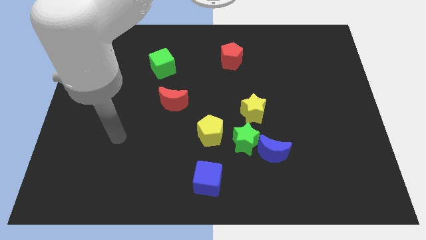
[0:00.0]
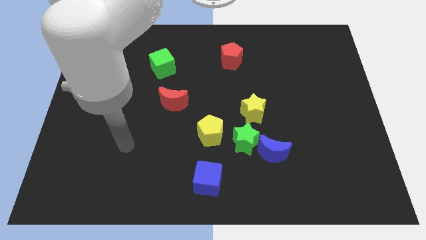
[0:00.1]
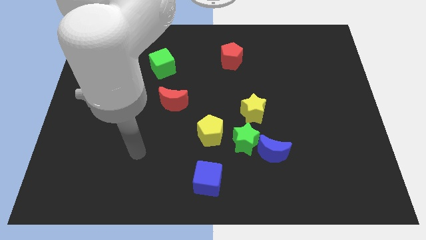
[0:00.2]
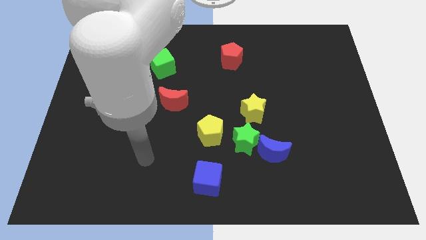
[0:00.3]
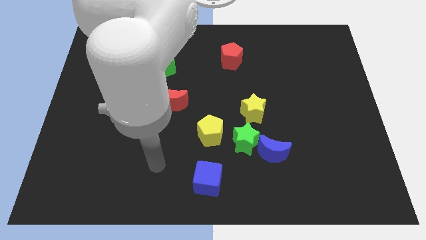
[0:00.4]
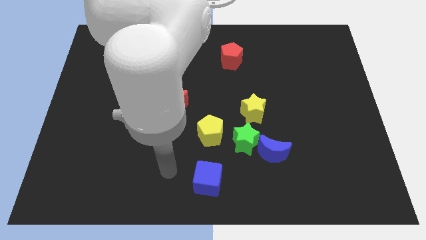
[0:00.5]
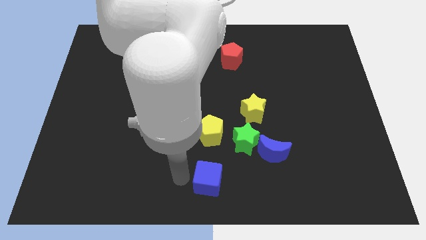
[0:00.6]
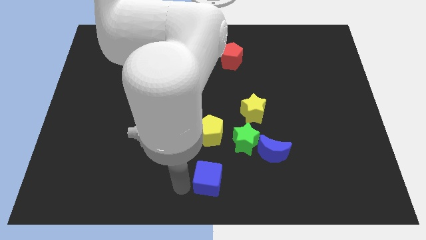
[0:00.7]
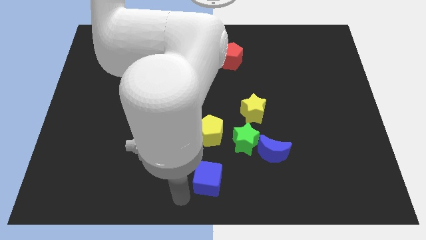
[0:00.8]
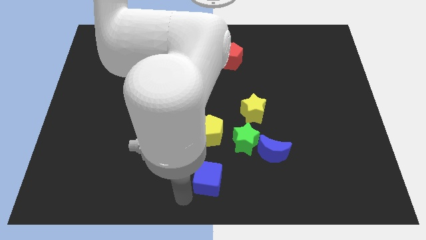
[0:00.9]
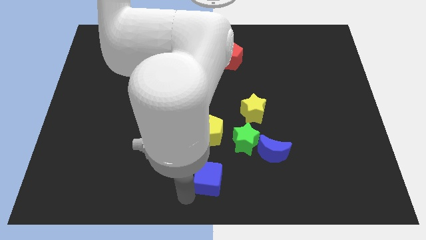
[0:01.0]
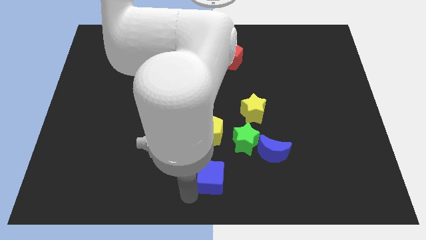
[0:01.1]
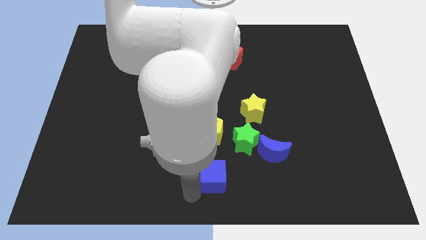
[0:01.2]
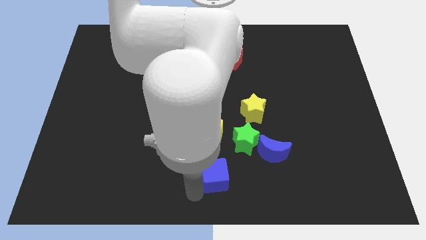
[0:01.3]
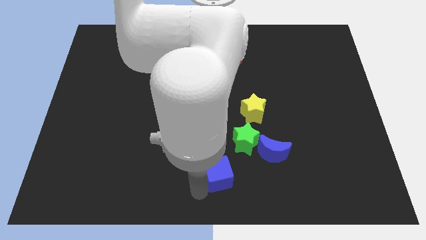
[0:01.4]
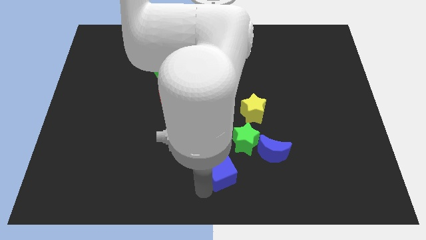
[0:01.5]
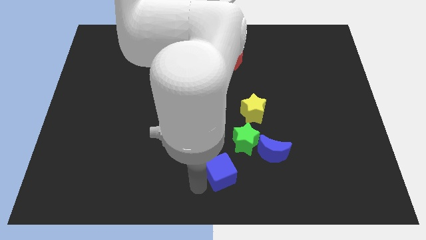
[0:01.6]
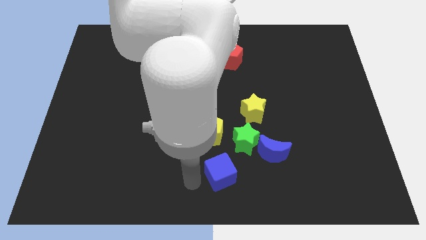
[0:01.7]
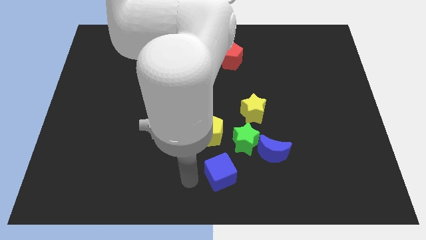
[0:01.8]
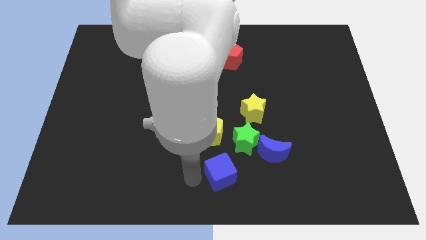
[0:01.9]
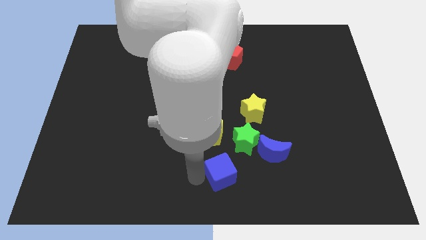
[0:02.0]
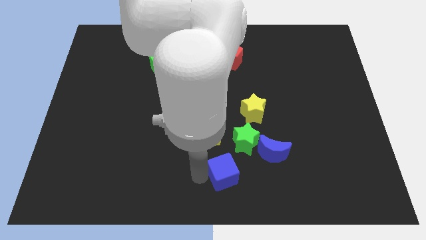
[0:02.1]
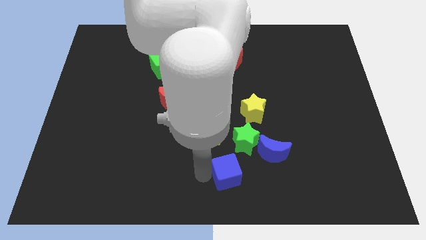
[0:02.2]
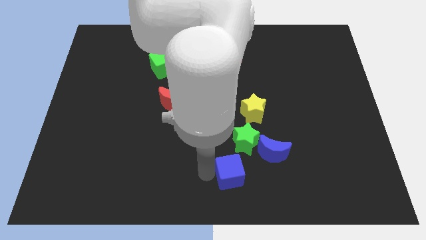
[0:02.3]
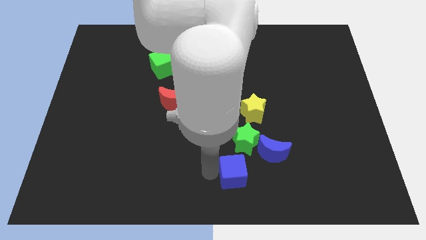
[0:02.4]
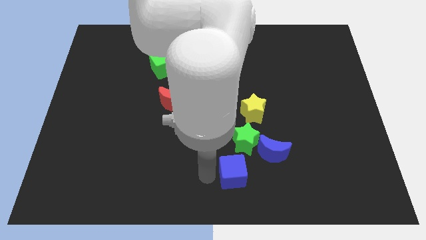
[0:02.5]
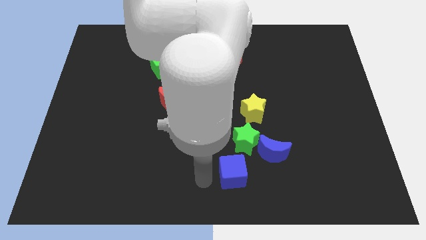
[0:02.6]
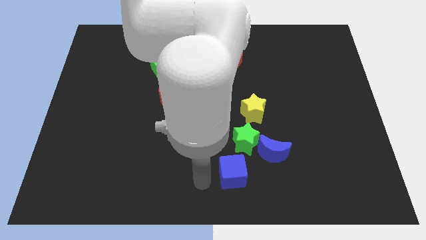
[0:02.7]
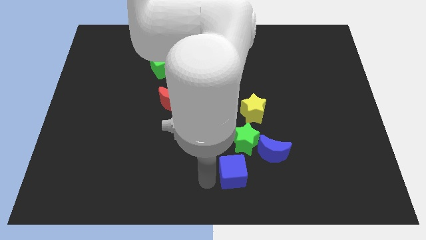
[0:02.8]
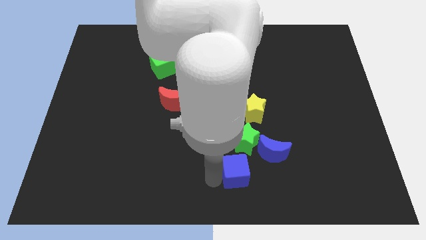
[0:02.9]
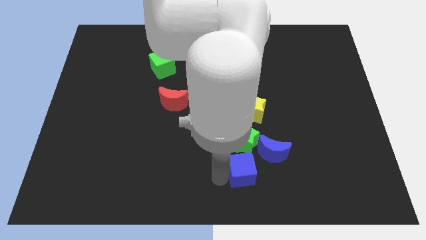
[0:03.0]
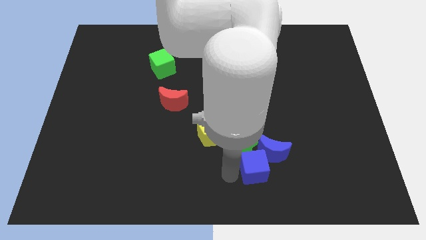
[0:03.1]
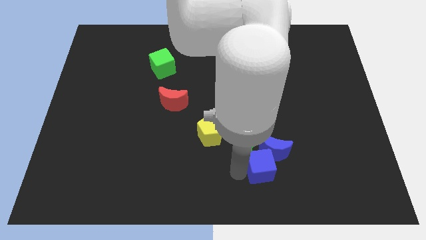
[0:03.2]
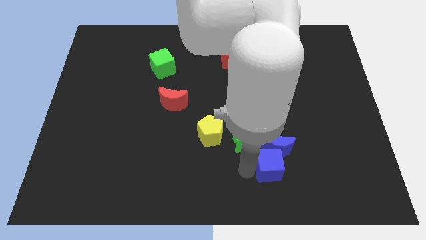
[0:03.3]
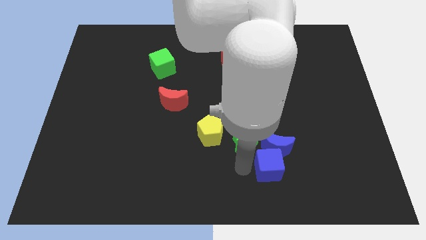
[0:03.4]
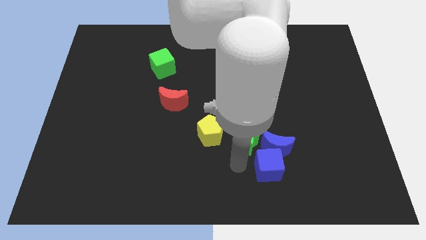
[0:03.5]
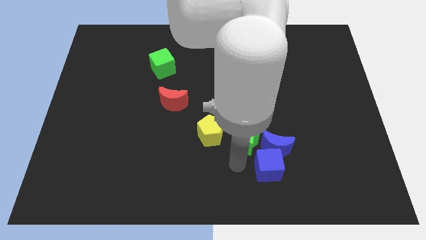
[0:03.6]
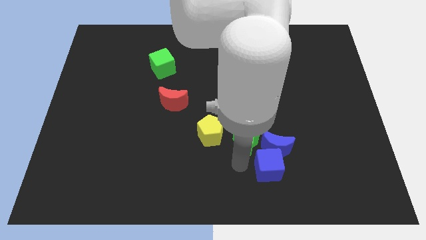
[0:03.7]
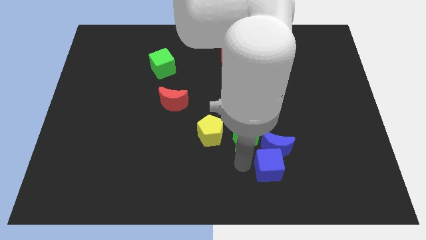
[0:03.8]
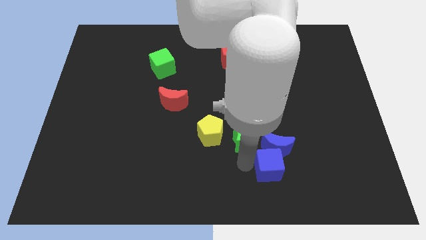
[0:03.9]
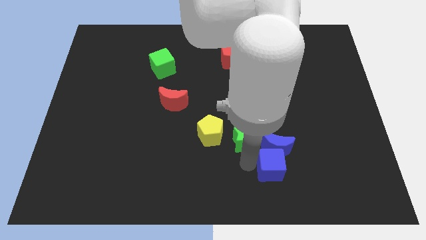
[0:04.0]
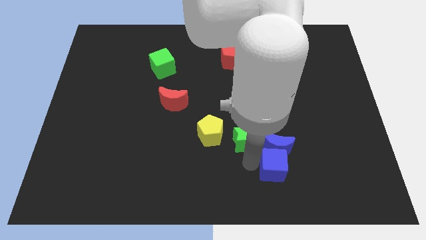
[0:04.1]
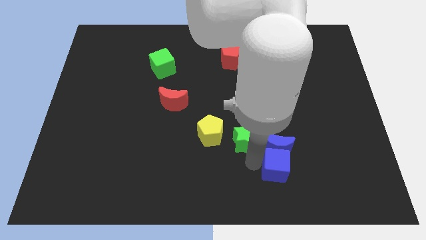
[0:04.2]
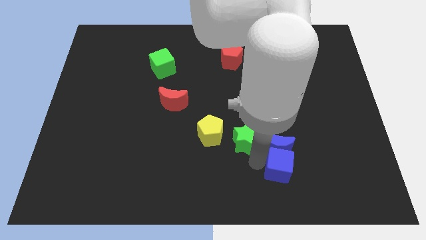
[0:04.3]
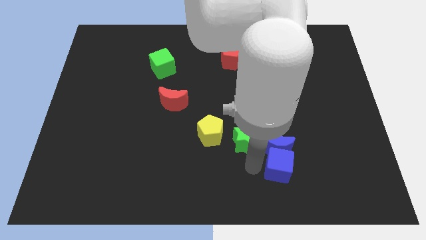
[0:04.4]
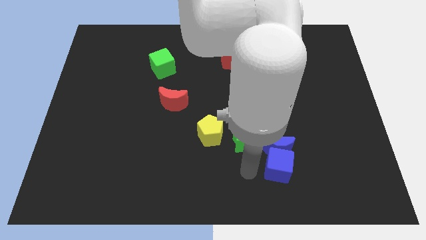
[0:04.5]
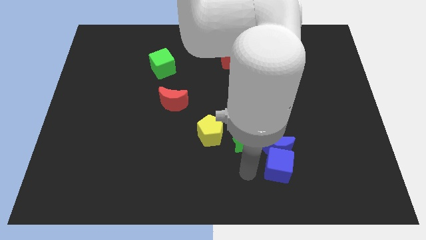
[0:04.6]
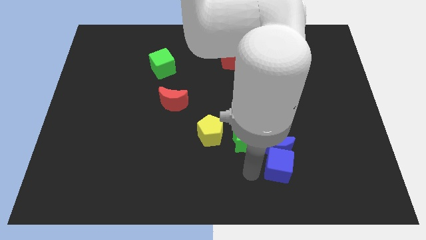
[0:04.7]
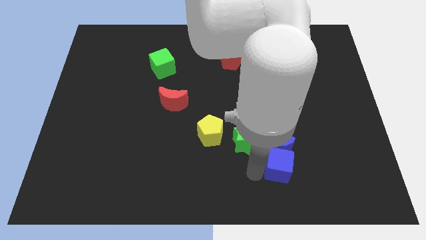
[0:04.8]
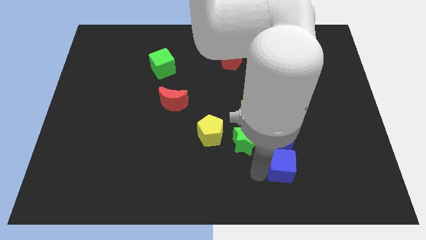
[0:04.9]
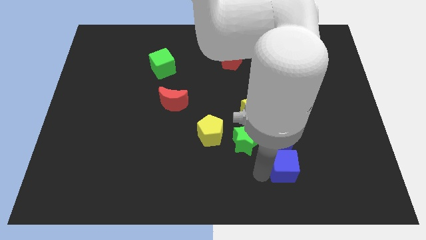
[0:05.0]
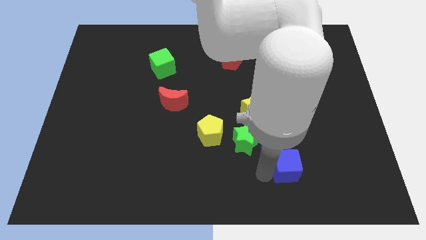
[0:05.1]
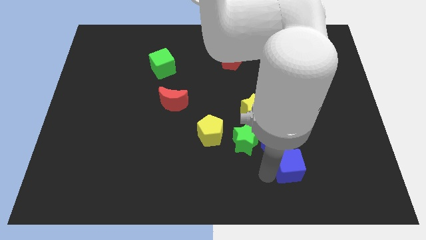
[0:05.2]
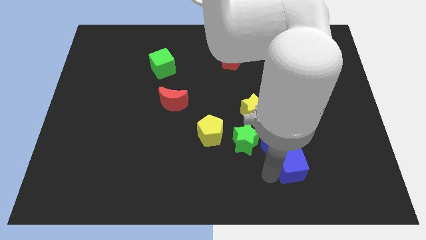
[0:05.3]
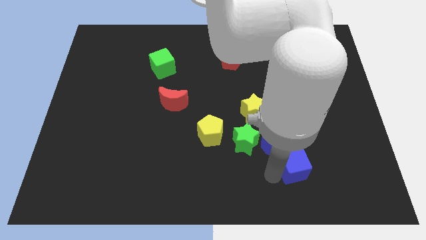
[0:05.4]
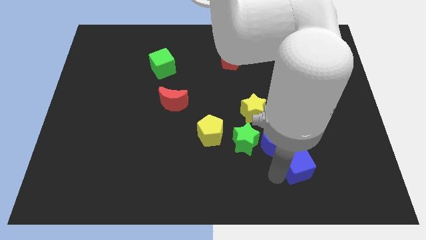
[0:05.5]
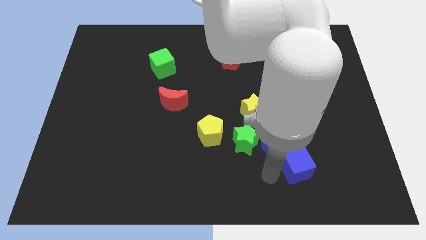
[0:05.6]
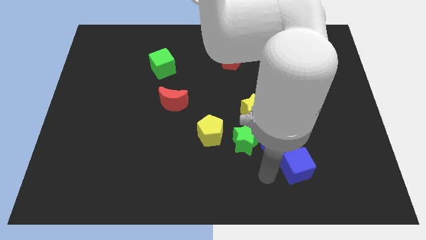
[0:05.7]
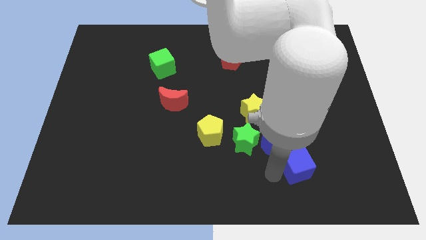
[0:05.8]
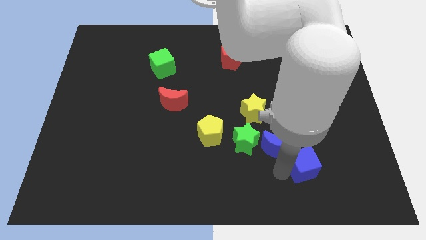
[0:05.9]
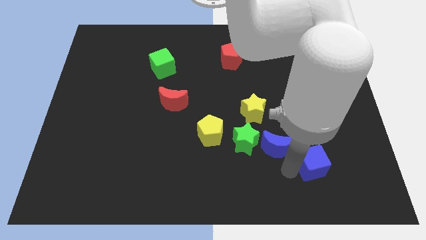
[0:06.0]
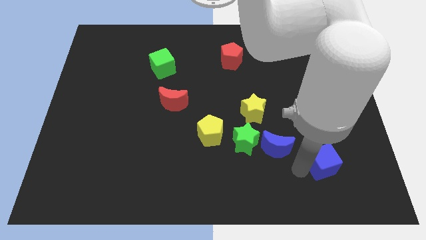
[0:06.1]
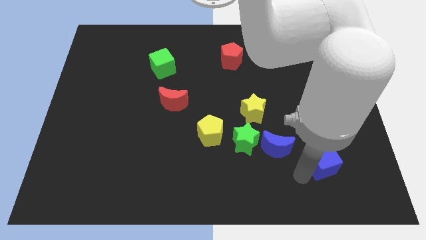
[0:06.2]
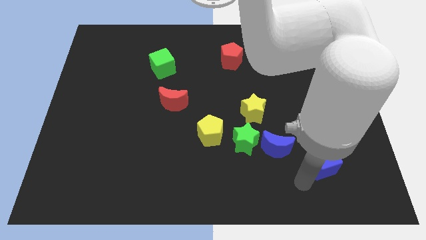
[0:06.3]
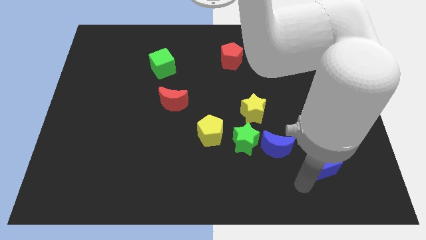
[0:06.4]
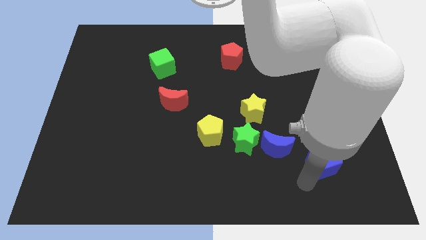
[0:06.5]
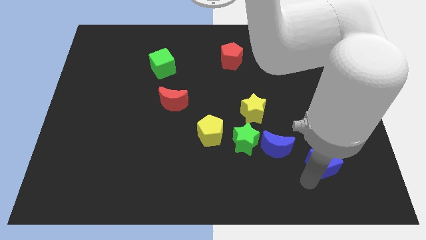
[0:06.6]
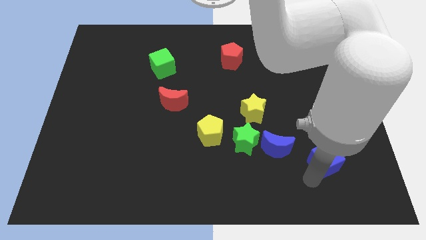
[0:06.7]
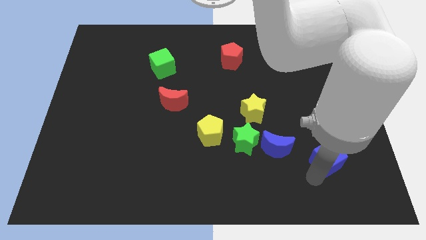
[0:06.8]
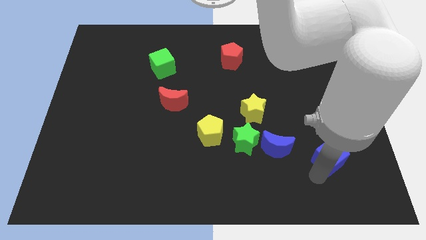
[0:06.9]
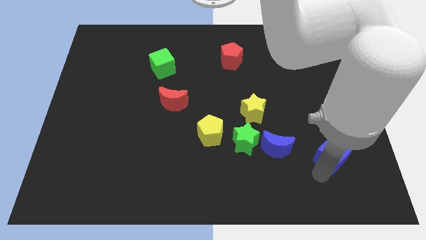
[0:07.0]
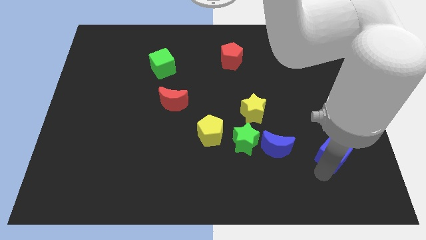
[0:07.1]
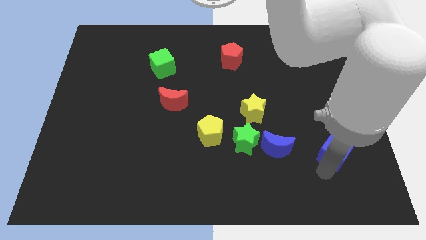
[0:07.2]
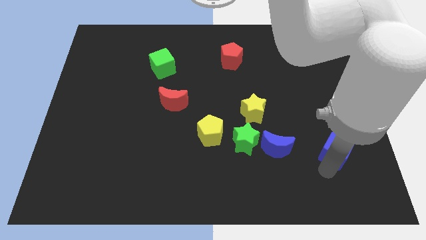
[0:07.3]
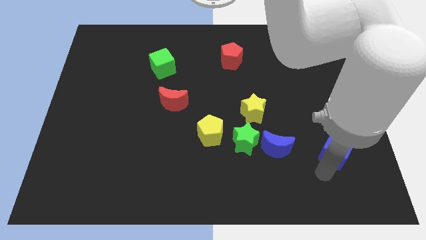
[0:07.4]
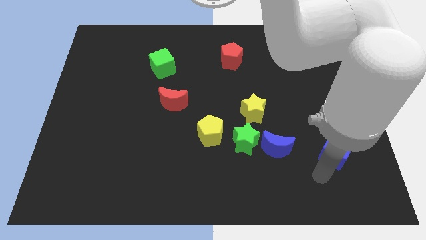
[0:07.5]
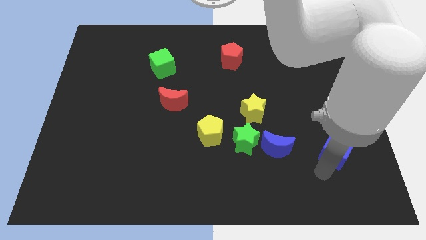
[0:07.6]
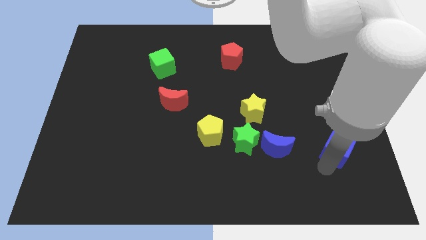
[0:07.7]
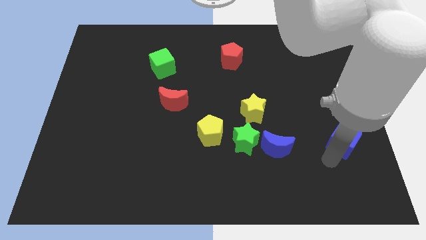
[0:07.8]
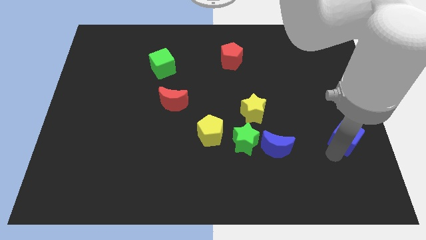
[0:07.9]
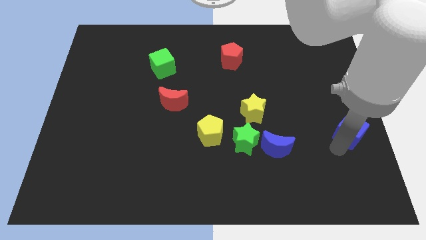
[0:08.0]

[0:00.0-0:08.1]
slide the blue cube to the right side of the board
